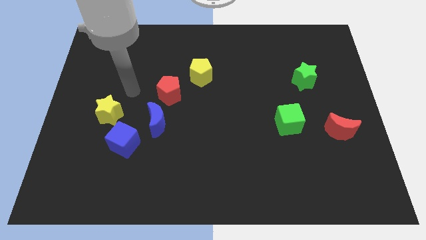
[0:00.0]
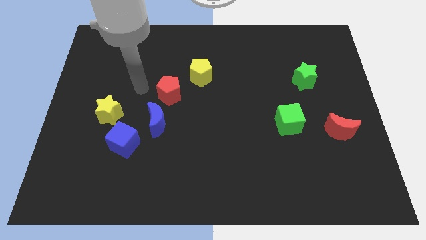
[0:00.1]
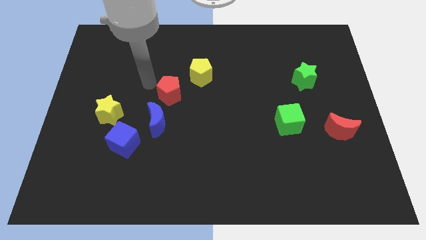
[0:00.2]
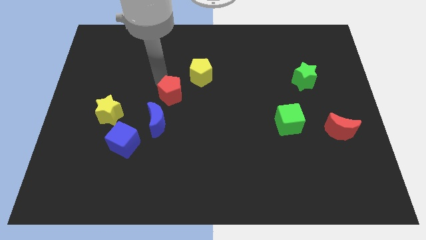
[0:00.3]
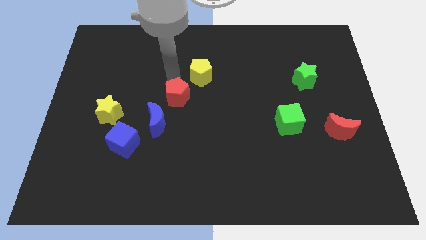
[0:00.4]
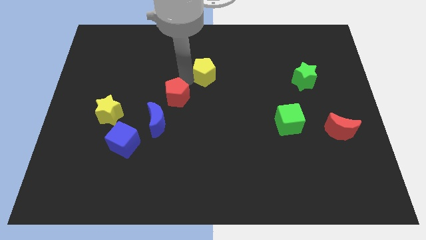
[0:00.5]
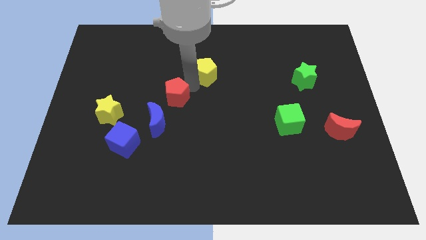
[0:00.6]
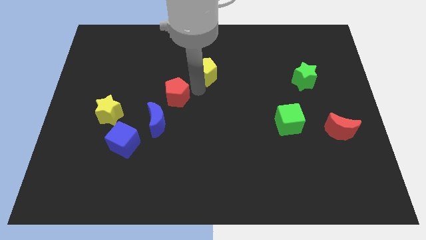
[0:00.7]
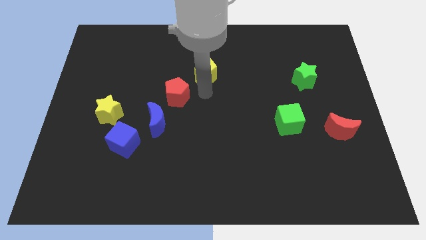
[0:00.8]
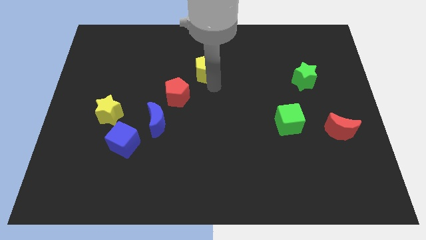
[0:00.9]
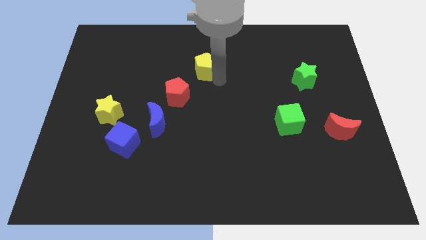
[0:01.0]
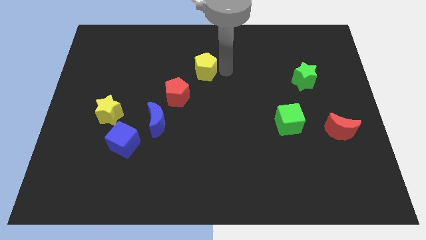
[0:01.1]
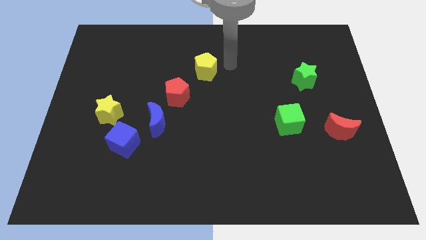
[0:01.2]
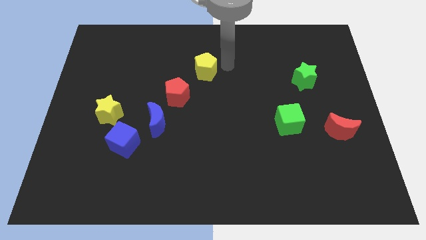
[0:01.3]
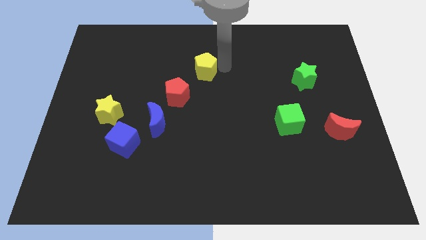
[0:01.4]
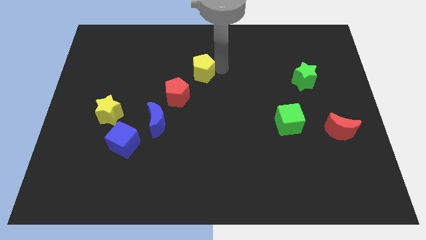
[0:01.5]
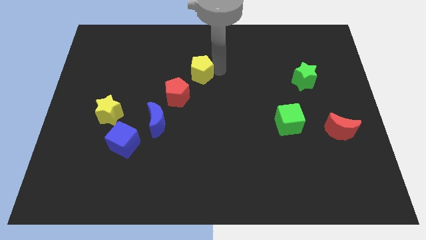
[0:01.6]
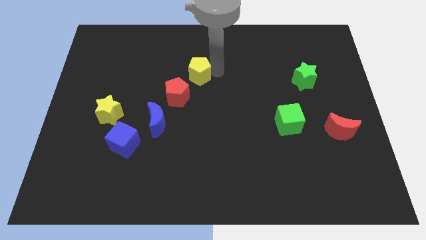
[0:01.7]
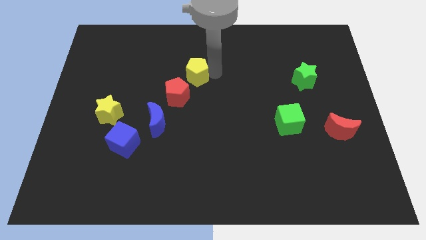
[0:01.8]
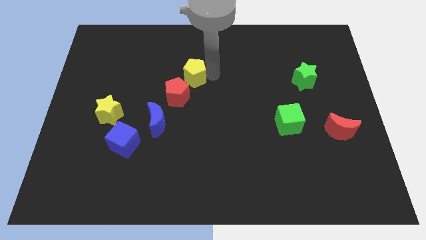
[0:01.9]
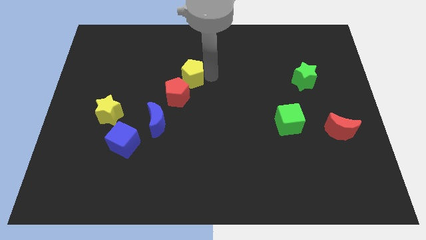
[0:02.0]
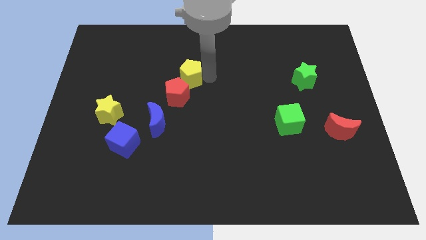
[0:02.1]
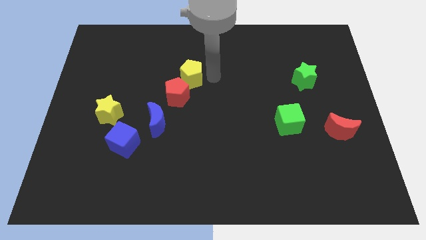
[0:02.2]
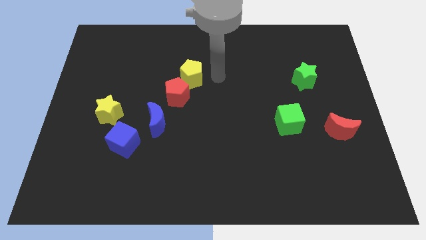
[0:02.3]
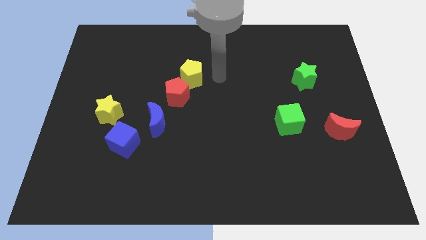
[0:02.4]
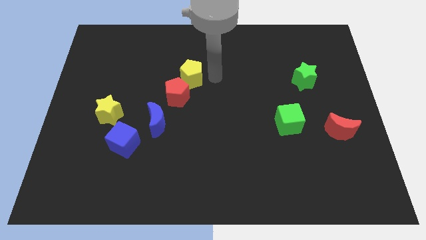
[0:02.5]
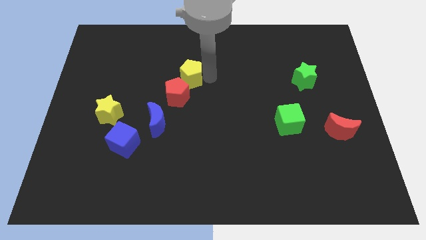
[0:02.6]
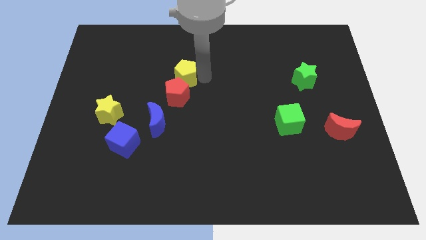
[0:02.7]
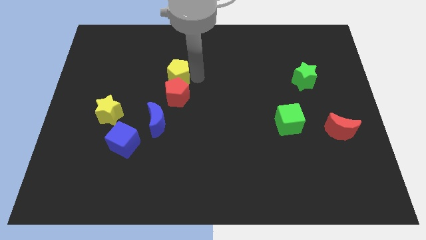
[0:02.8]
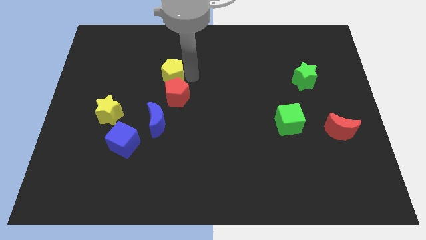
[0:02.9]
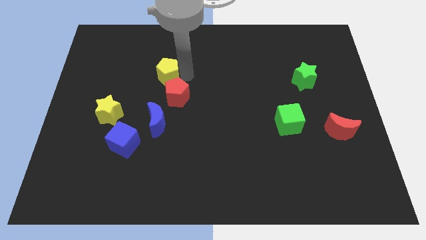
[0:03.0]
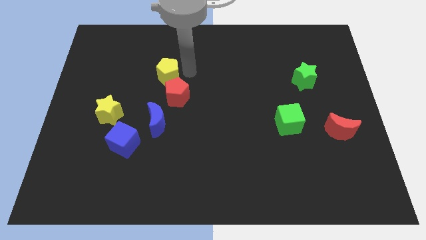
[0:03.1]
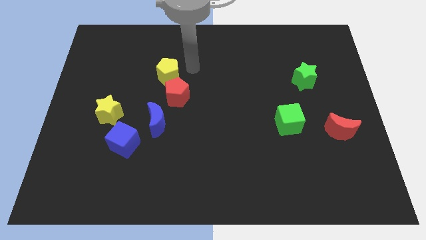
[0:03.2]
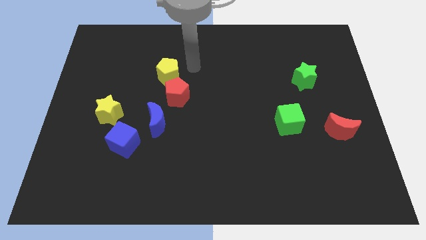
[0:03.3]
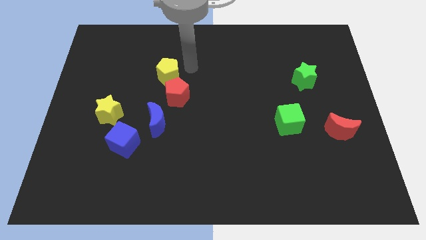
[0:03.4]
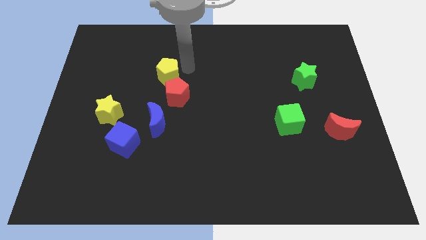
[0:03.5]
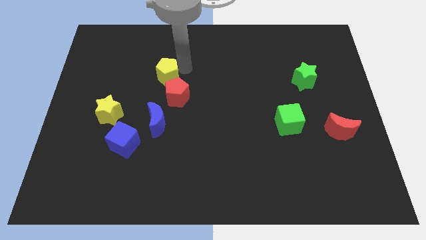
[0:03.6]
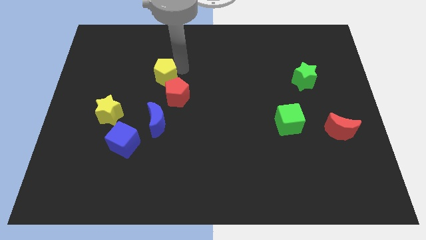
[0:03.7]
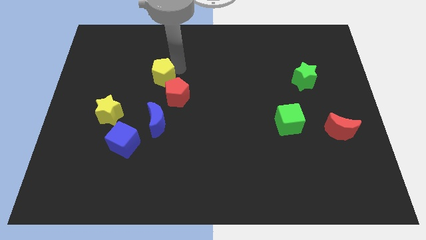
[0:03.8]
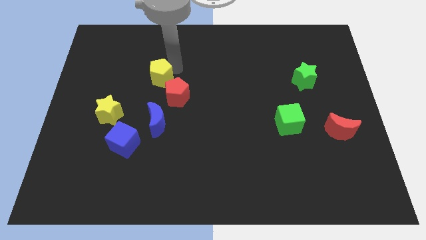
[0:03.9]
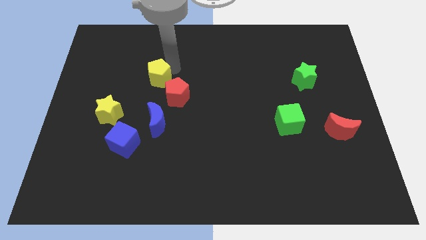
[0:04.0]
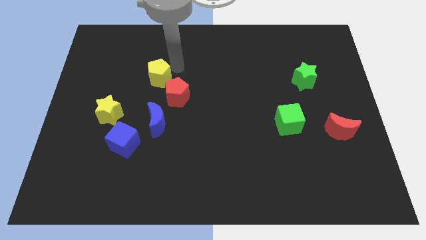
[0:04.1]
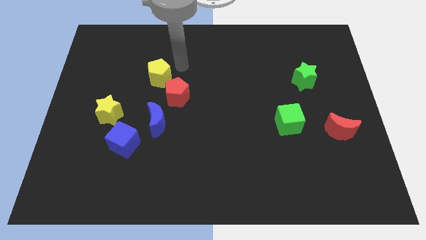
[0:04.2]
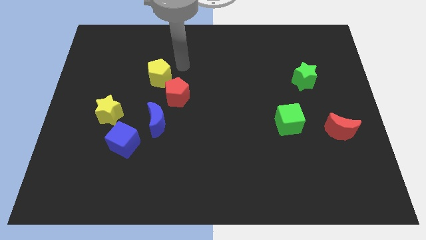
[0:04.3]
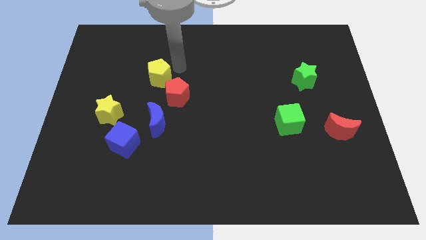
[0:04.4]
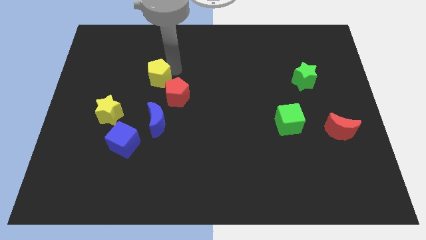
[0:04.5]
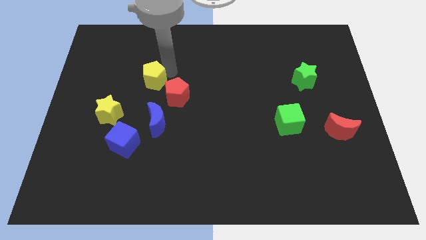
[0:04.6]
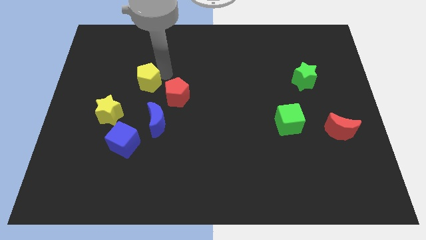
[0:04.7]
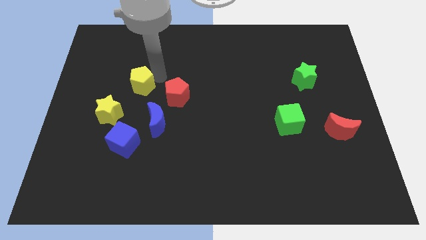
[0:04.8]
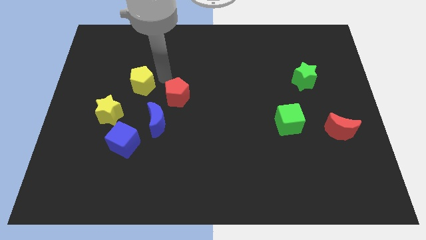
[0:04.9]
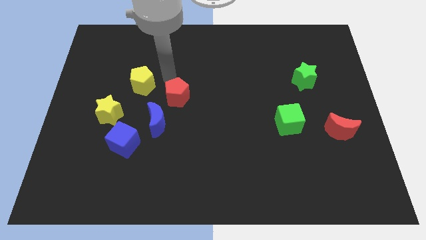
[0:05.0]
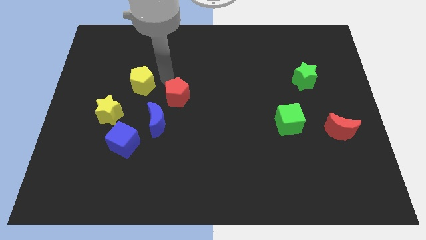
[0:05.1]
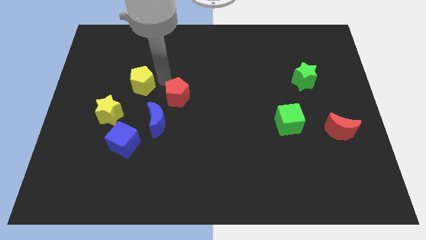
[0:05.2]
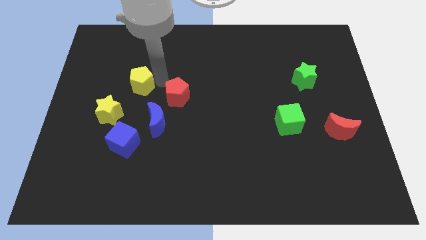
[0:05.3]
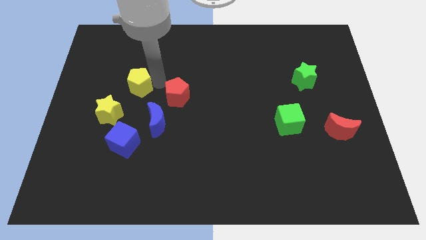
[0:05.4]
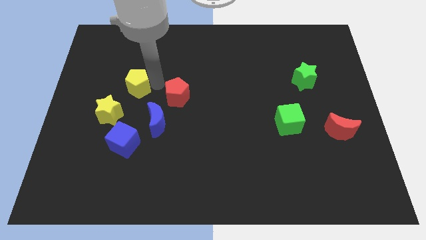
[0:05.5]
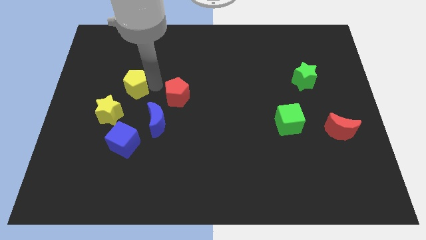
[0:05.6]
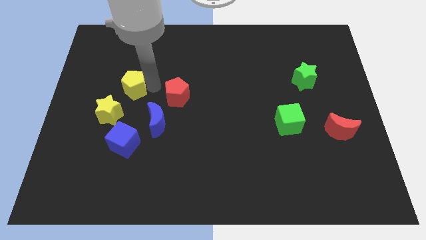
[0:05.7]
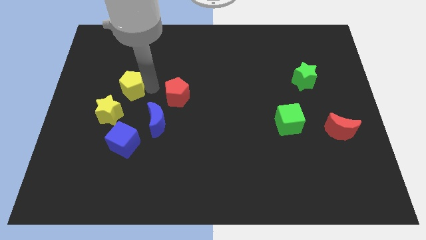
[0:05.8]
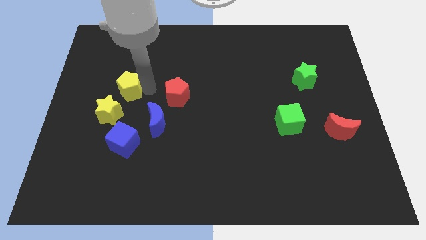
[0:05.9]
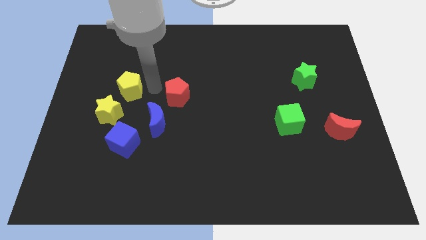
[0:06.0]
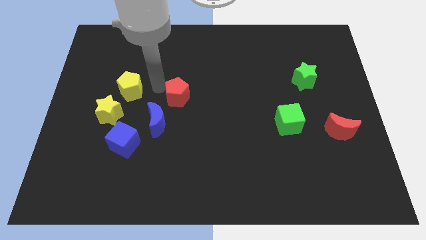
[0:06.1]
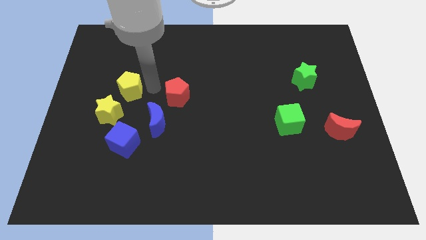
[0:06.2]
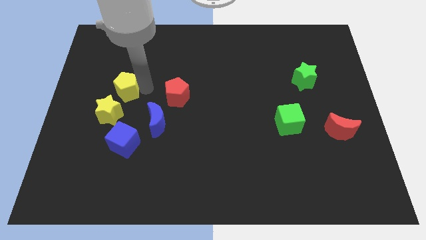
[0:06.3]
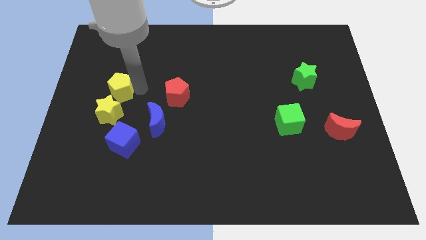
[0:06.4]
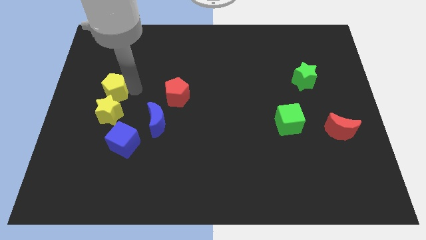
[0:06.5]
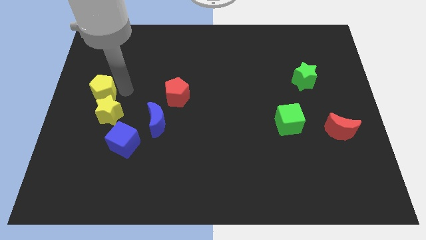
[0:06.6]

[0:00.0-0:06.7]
put the yellow pentagon to the center left
